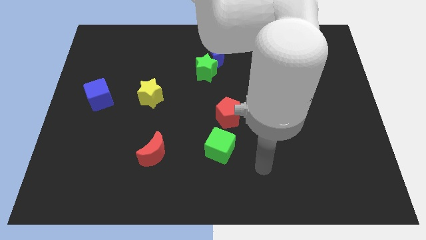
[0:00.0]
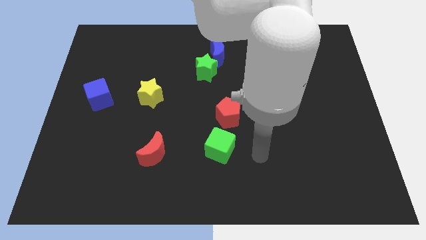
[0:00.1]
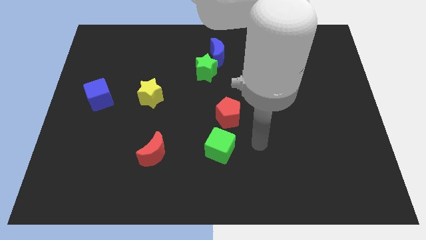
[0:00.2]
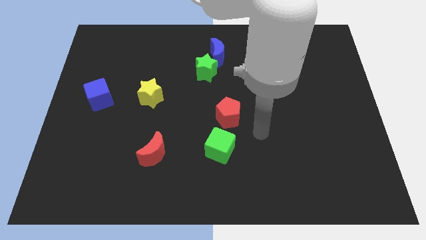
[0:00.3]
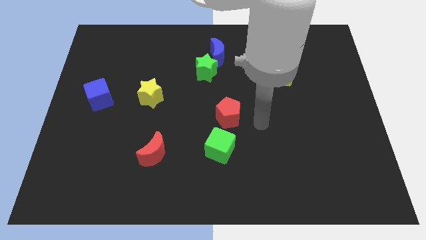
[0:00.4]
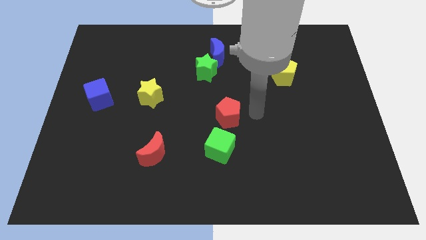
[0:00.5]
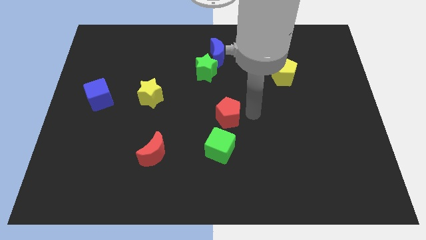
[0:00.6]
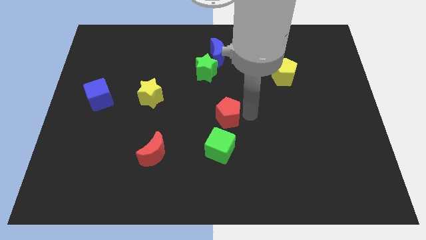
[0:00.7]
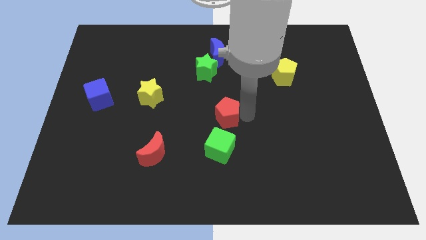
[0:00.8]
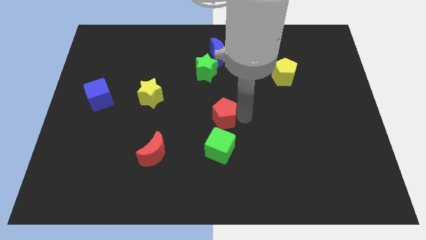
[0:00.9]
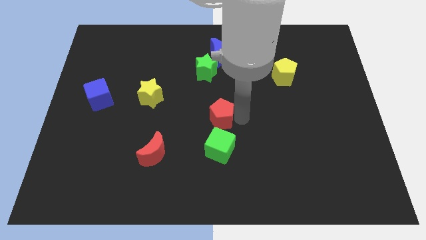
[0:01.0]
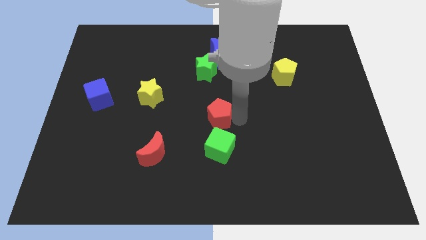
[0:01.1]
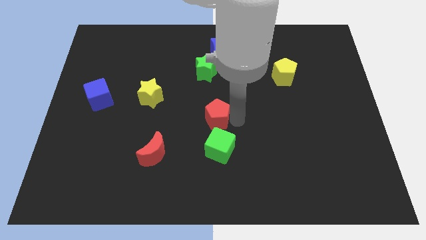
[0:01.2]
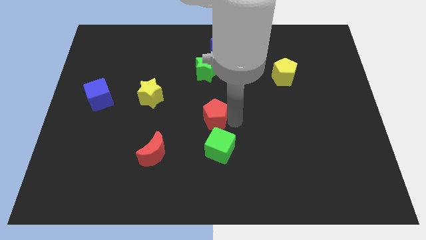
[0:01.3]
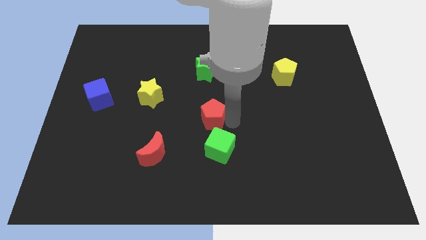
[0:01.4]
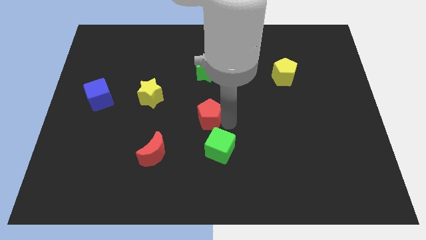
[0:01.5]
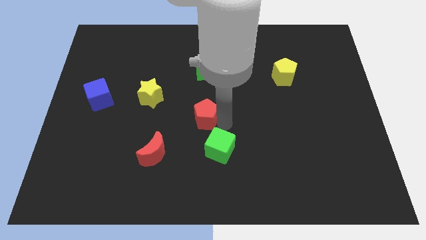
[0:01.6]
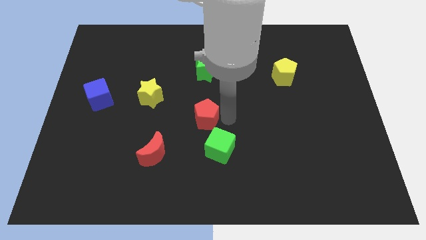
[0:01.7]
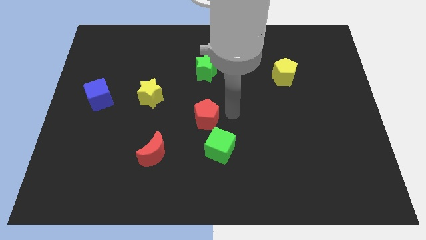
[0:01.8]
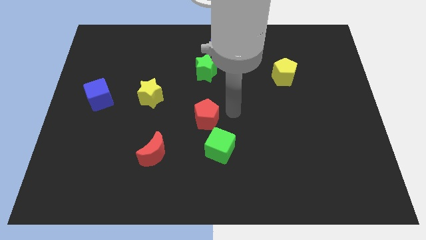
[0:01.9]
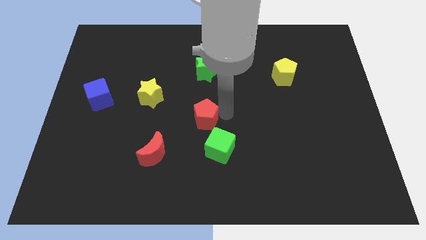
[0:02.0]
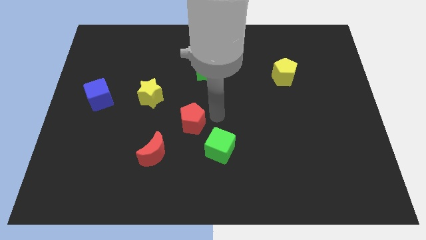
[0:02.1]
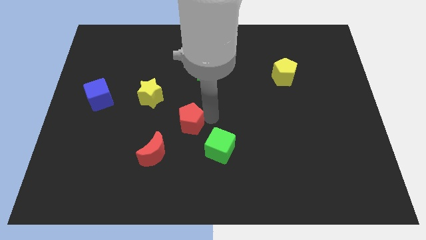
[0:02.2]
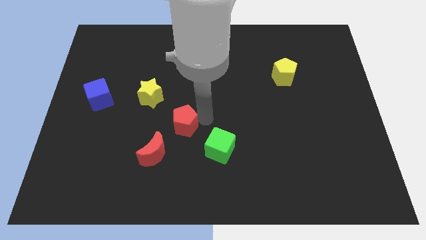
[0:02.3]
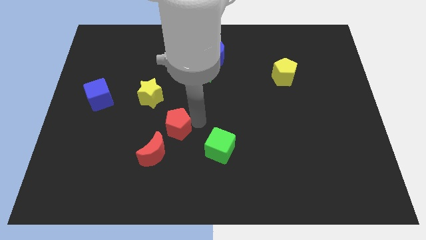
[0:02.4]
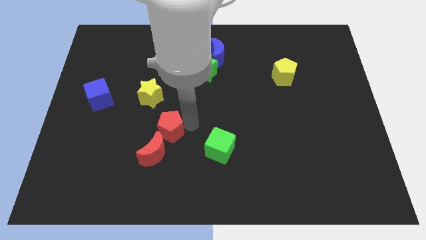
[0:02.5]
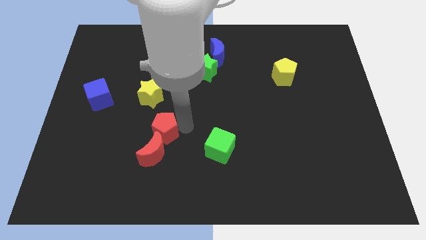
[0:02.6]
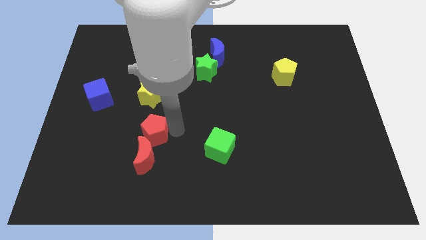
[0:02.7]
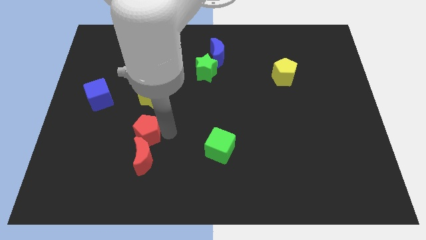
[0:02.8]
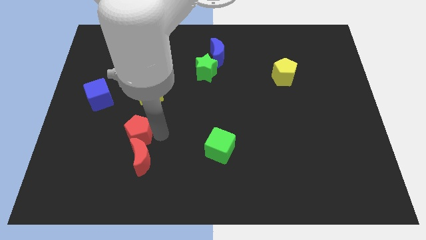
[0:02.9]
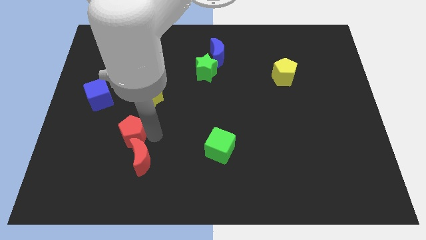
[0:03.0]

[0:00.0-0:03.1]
push the red pentagon to the left

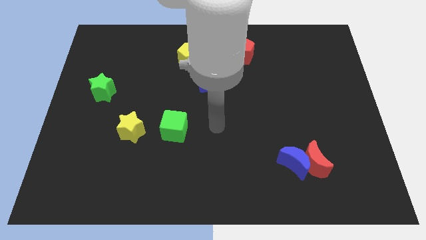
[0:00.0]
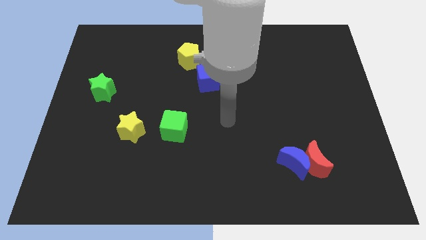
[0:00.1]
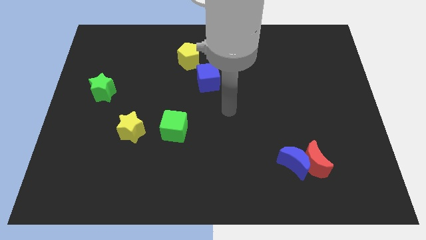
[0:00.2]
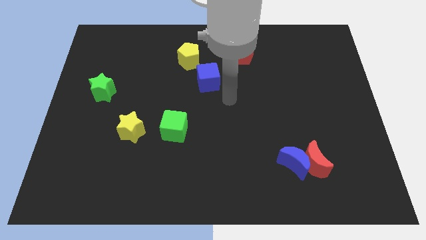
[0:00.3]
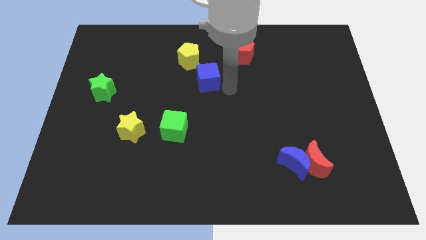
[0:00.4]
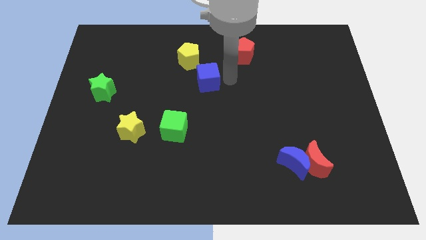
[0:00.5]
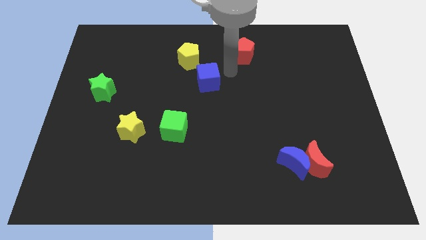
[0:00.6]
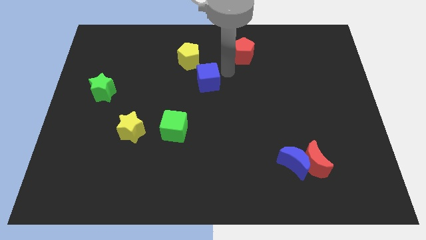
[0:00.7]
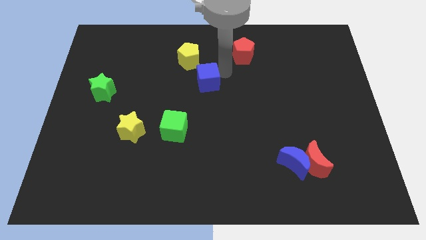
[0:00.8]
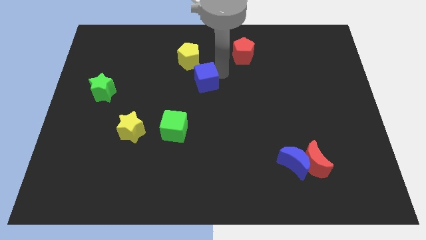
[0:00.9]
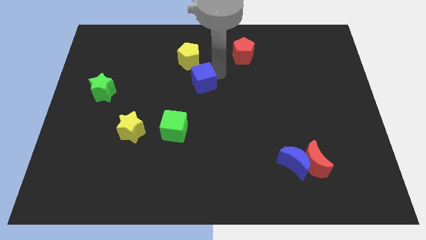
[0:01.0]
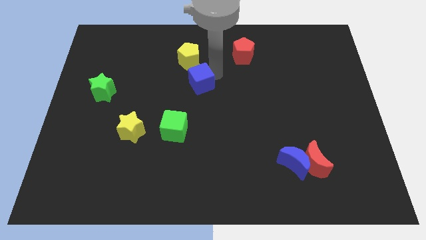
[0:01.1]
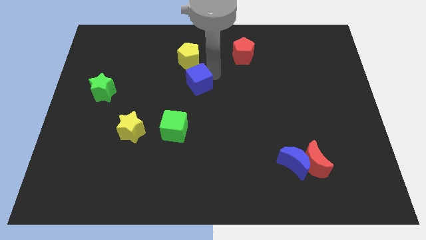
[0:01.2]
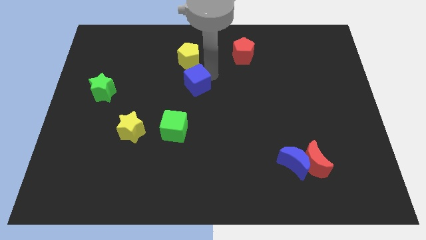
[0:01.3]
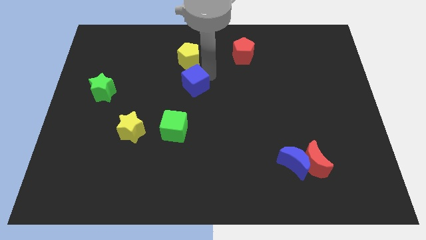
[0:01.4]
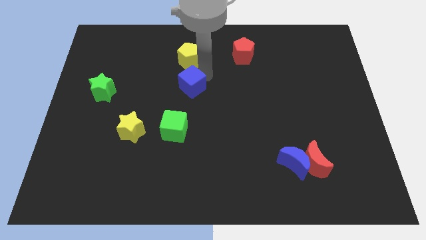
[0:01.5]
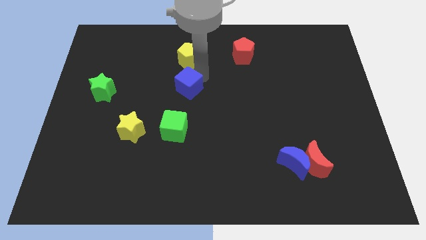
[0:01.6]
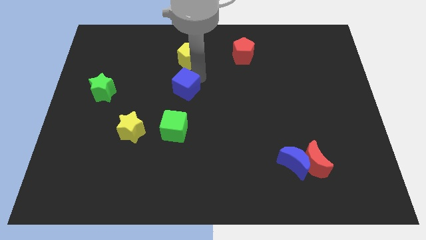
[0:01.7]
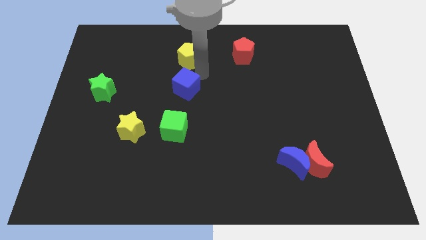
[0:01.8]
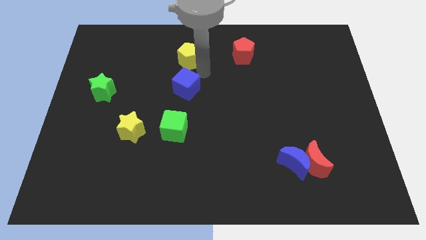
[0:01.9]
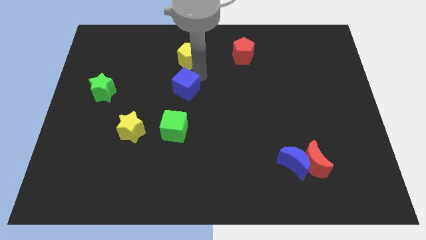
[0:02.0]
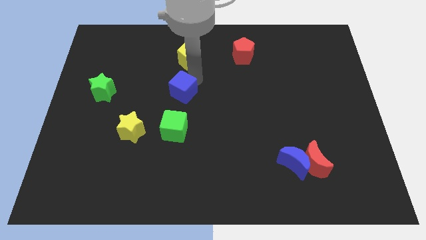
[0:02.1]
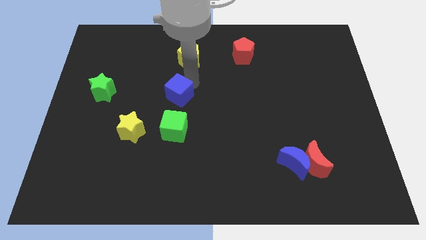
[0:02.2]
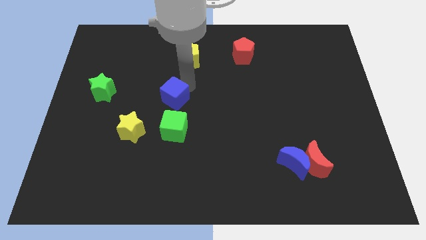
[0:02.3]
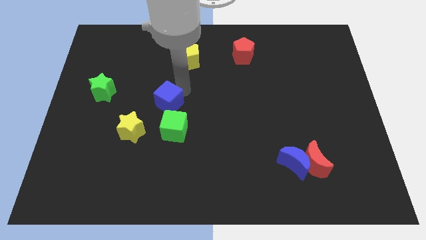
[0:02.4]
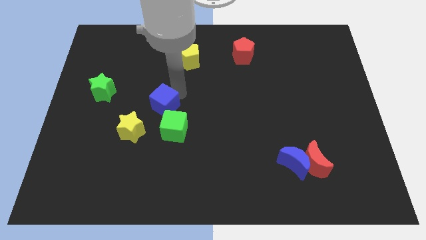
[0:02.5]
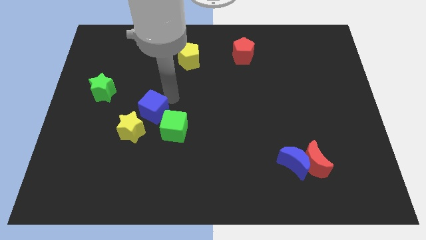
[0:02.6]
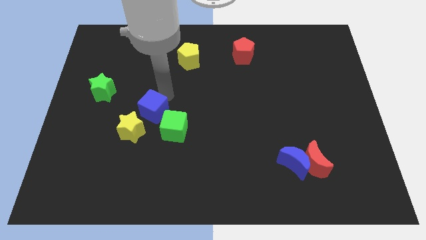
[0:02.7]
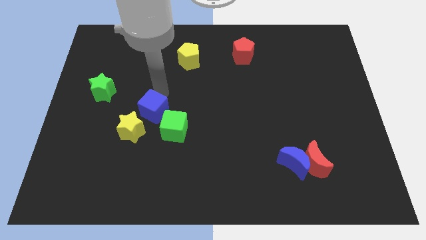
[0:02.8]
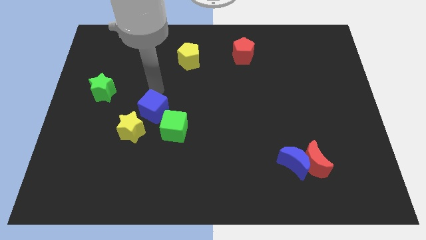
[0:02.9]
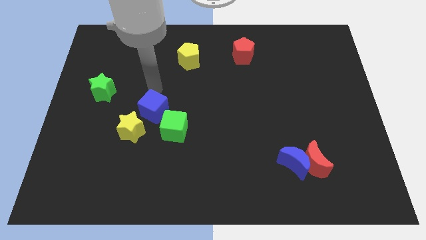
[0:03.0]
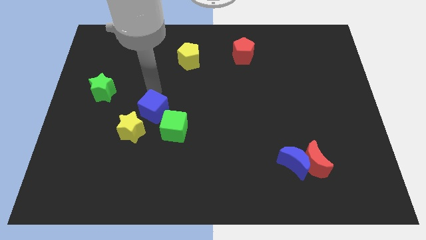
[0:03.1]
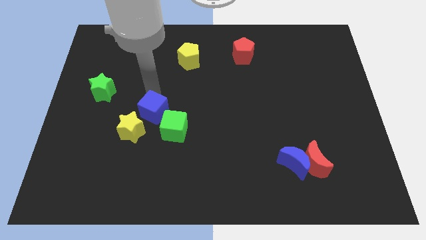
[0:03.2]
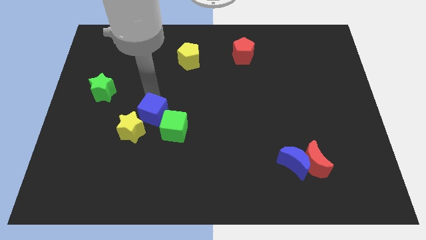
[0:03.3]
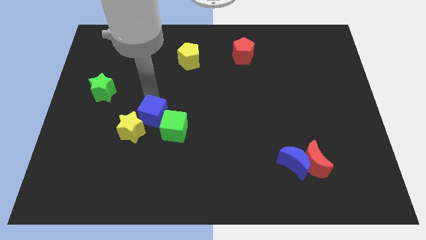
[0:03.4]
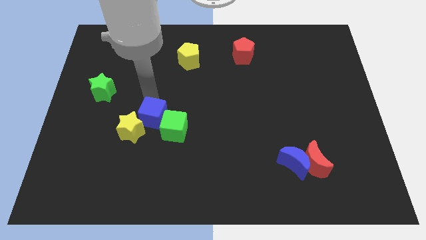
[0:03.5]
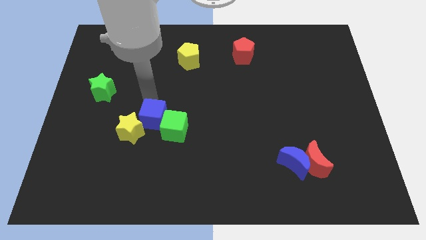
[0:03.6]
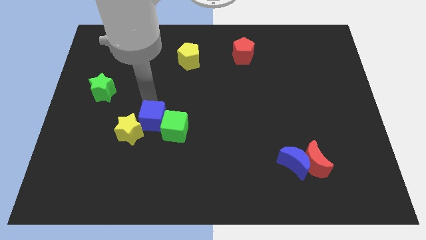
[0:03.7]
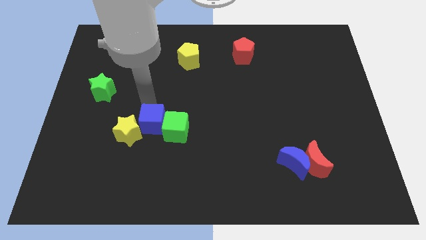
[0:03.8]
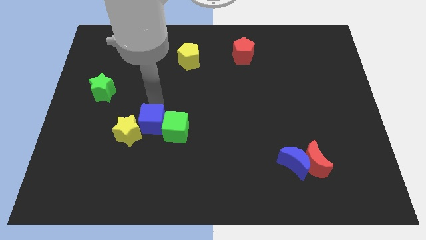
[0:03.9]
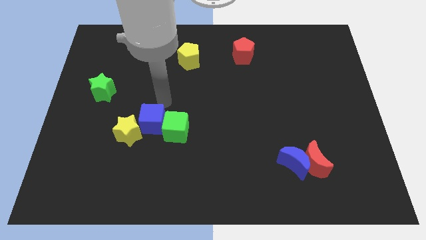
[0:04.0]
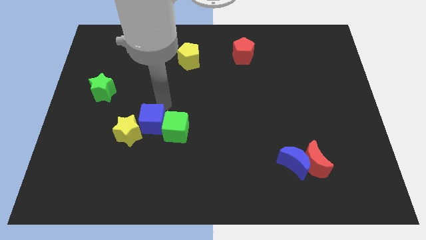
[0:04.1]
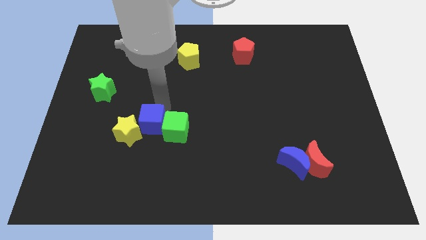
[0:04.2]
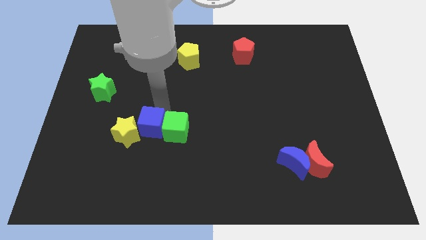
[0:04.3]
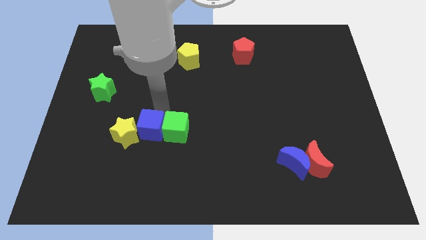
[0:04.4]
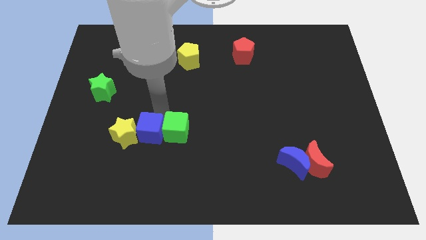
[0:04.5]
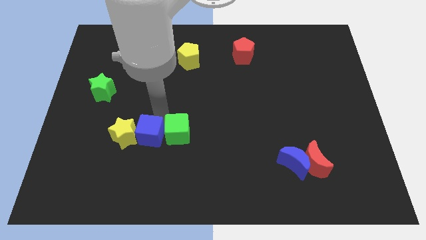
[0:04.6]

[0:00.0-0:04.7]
push the blue cube down and left diagonally

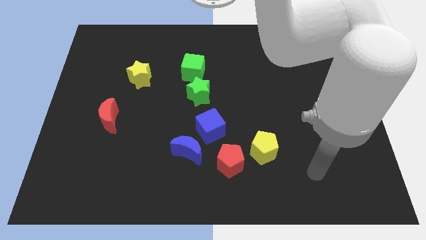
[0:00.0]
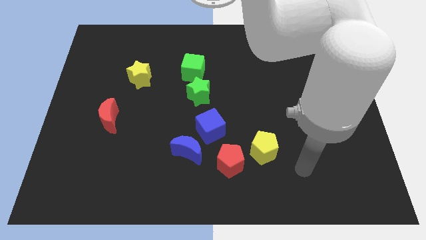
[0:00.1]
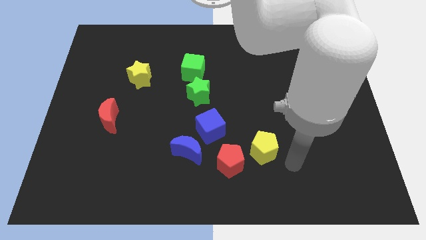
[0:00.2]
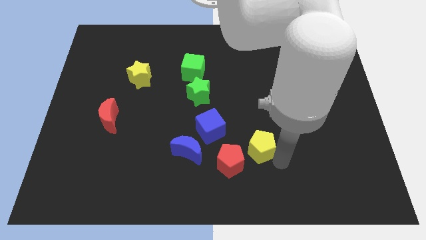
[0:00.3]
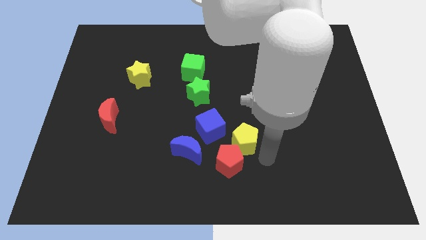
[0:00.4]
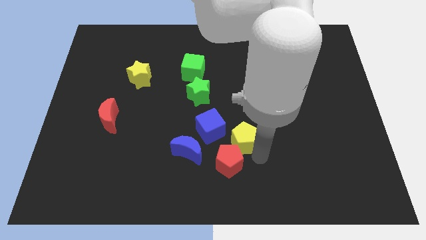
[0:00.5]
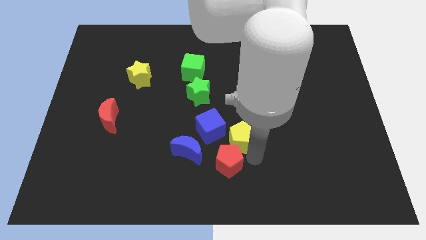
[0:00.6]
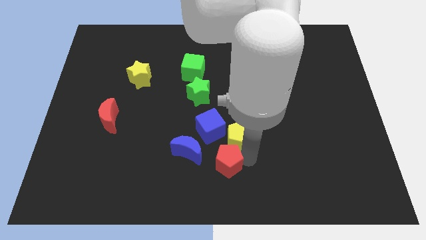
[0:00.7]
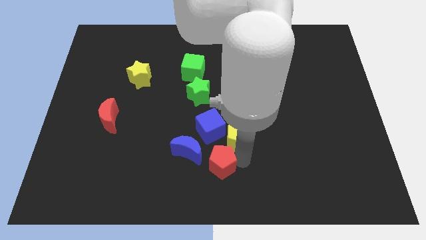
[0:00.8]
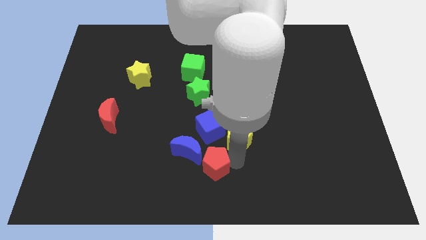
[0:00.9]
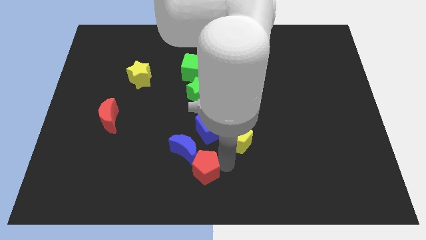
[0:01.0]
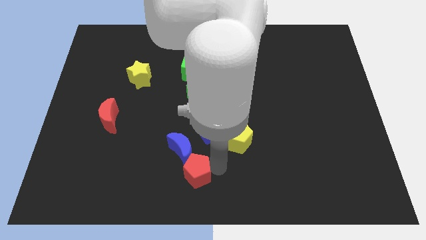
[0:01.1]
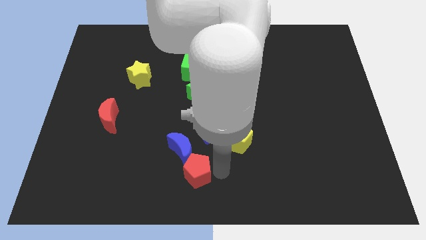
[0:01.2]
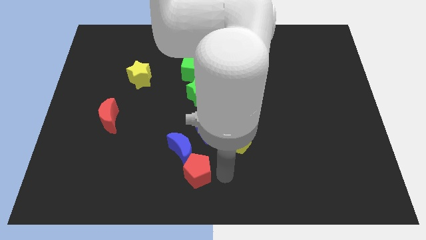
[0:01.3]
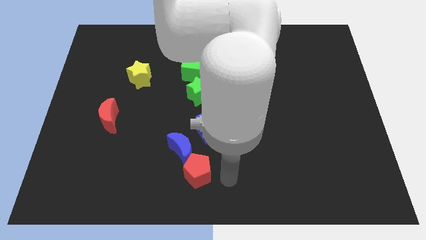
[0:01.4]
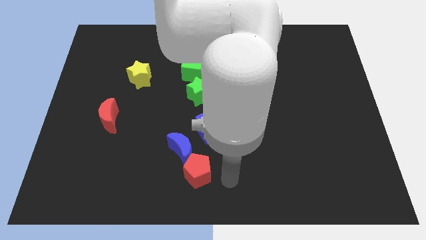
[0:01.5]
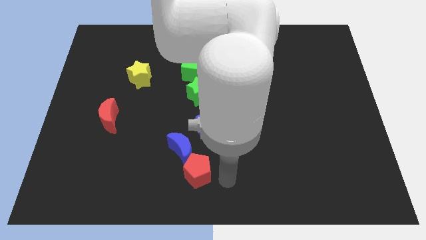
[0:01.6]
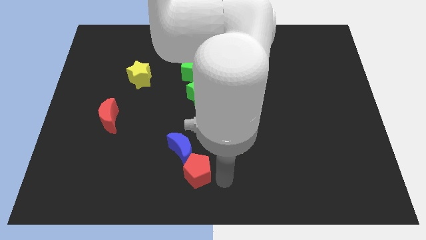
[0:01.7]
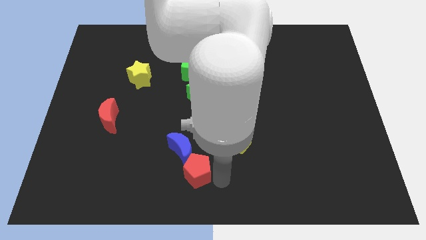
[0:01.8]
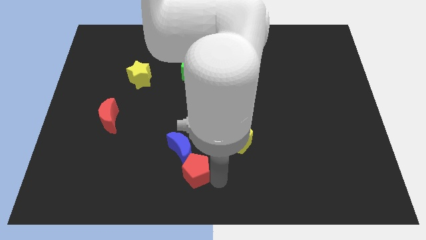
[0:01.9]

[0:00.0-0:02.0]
move the red pentagon slightly left
